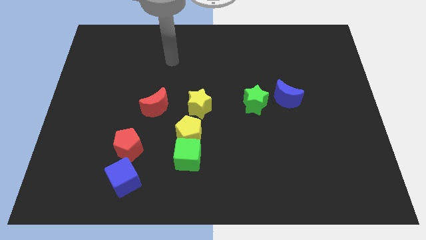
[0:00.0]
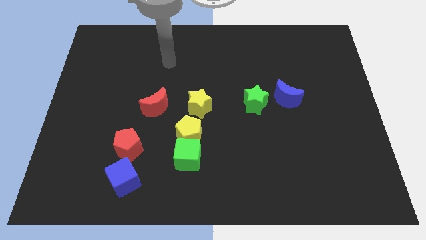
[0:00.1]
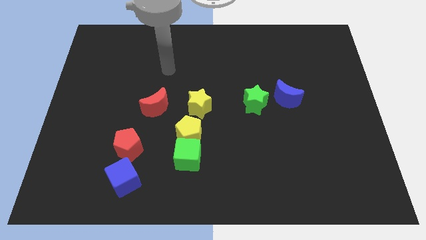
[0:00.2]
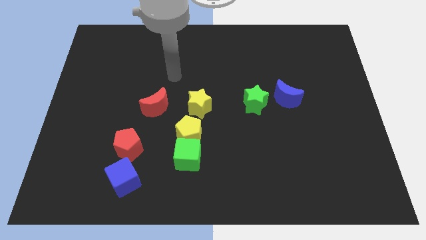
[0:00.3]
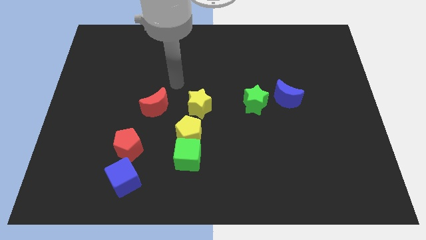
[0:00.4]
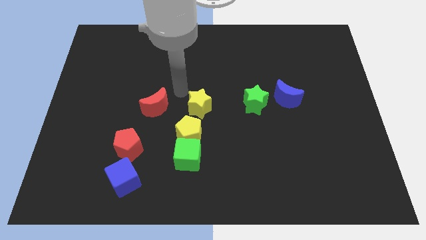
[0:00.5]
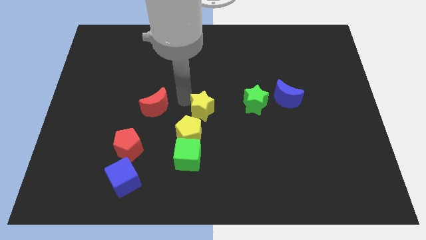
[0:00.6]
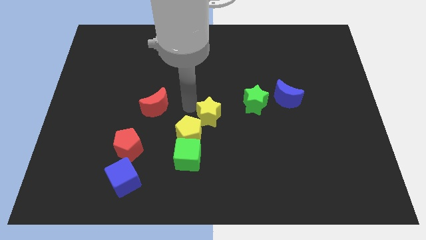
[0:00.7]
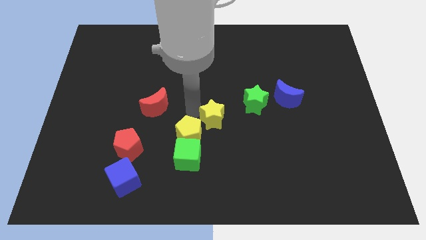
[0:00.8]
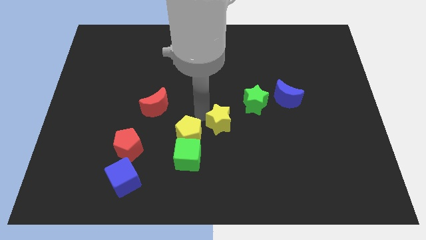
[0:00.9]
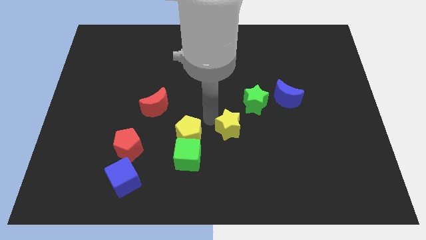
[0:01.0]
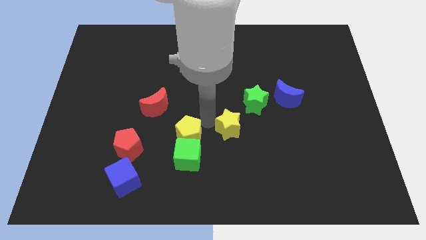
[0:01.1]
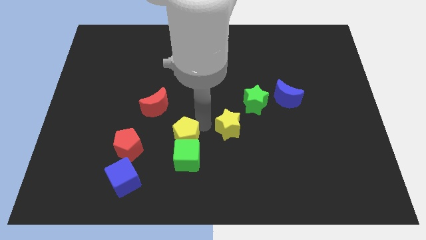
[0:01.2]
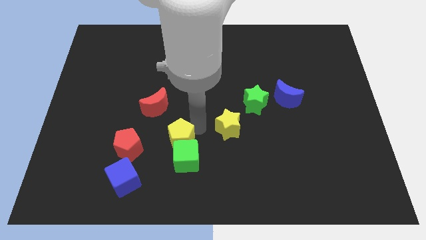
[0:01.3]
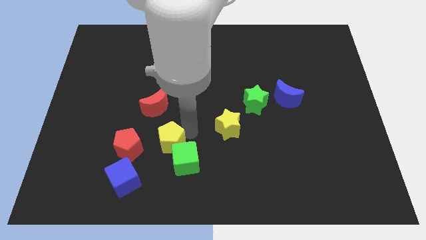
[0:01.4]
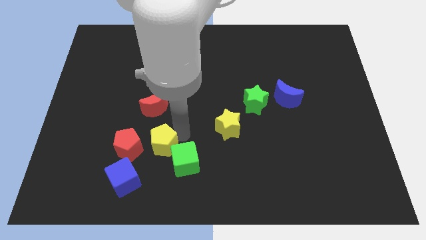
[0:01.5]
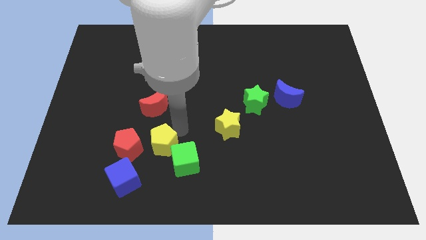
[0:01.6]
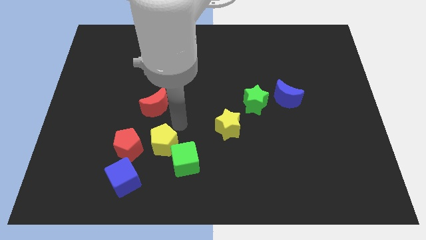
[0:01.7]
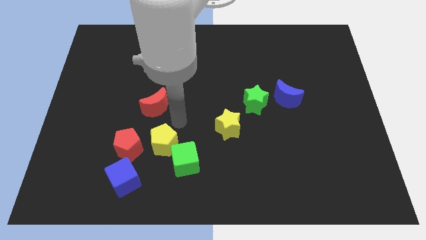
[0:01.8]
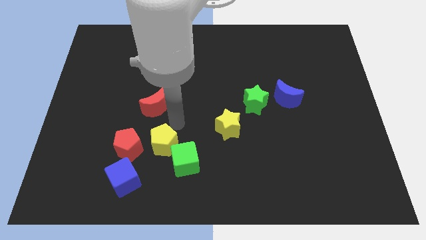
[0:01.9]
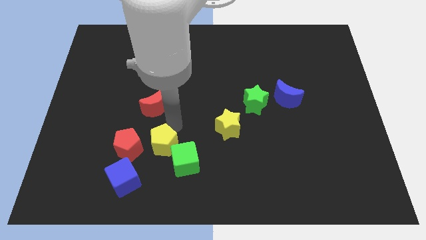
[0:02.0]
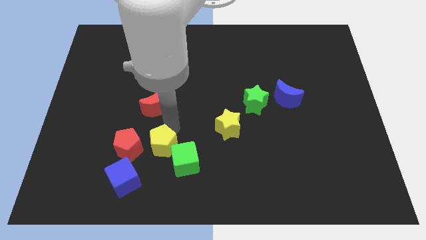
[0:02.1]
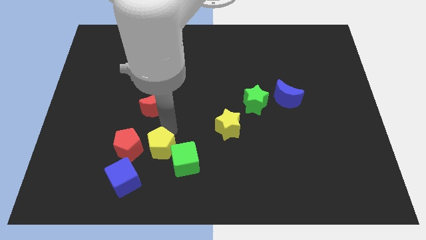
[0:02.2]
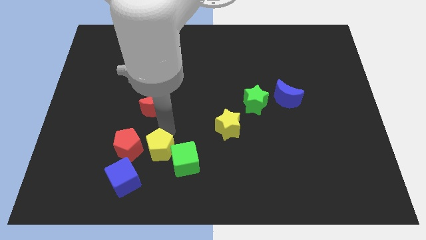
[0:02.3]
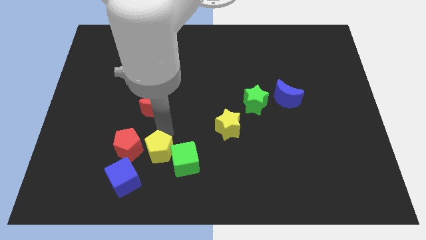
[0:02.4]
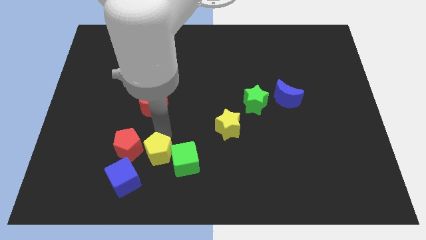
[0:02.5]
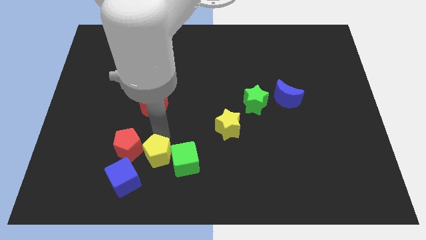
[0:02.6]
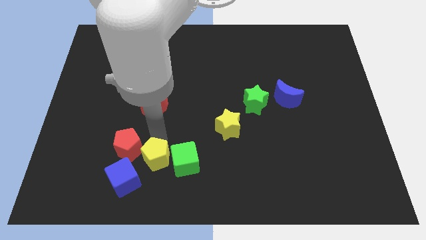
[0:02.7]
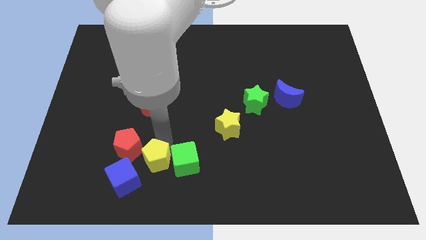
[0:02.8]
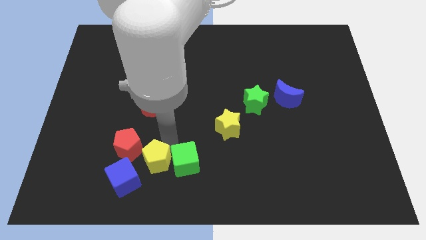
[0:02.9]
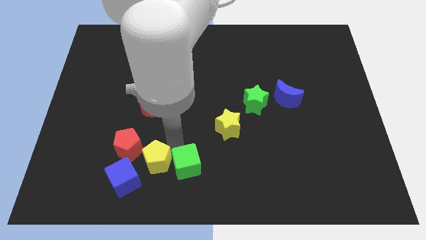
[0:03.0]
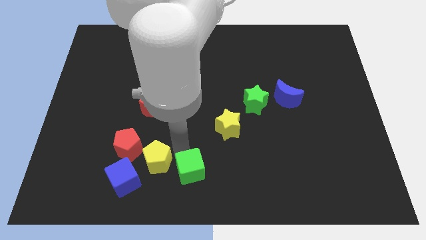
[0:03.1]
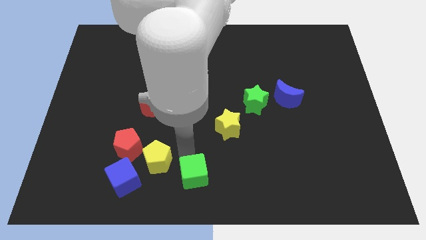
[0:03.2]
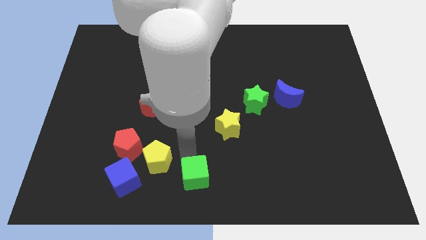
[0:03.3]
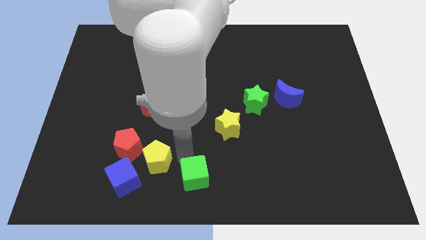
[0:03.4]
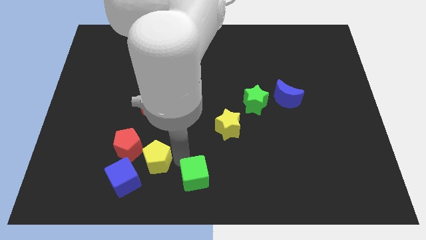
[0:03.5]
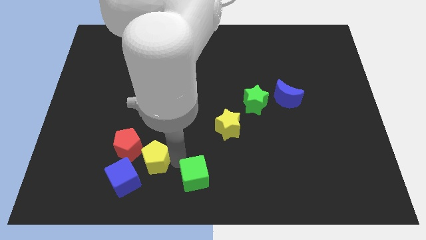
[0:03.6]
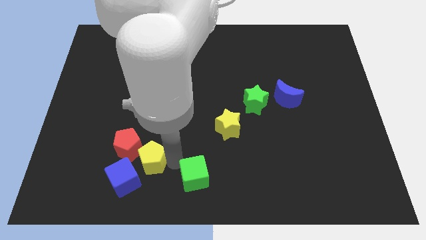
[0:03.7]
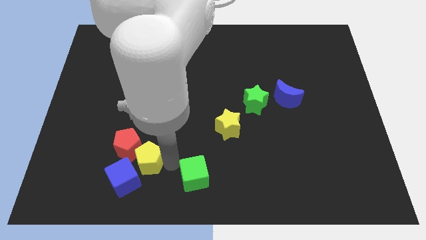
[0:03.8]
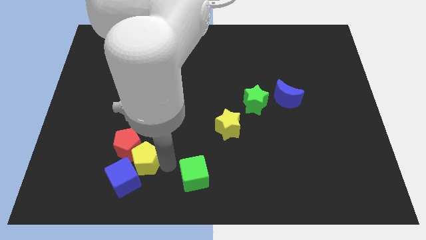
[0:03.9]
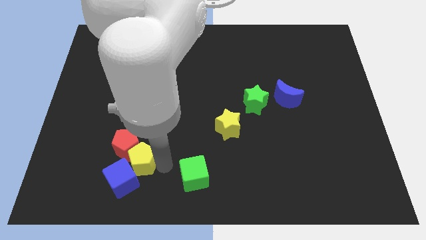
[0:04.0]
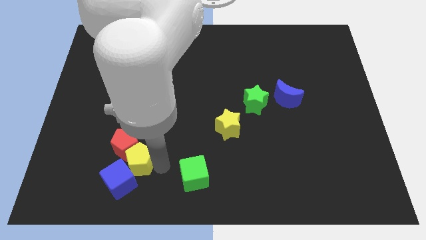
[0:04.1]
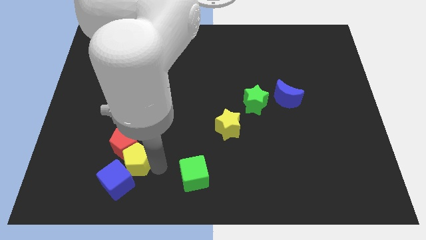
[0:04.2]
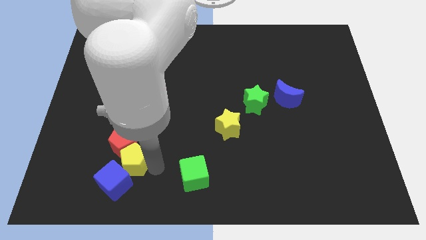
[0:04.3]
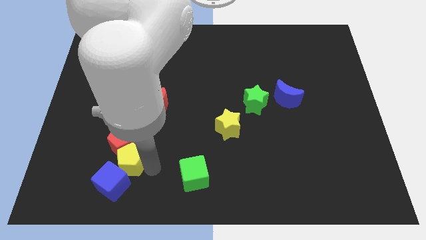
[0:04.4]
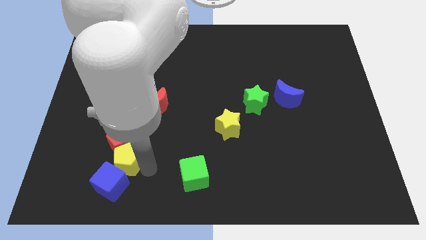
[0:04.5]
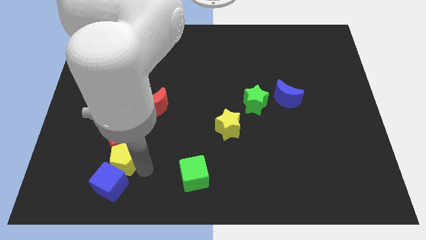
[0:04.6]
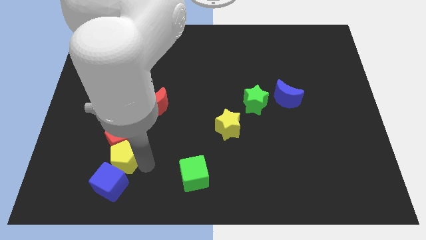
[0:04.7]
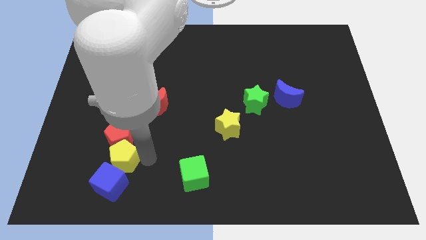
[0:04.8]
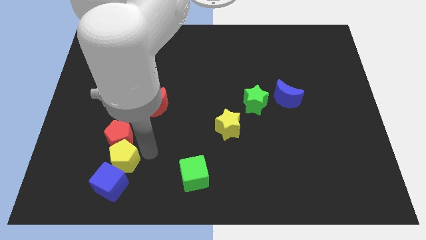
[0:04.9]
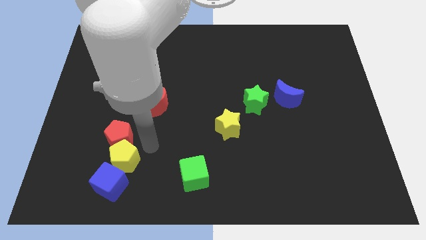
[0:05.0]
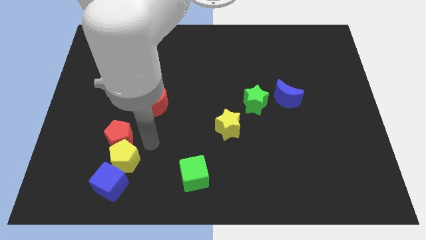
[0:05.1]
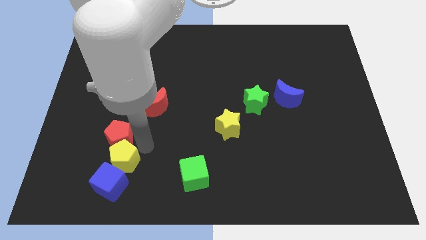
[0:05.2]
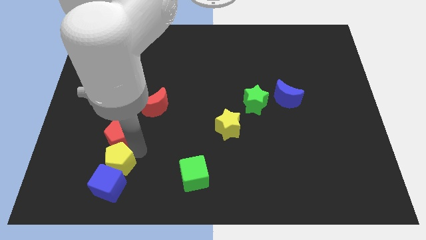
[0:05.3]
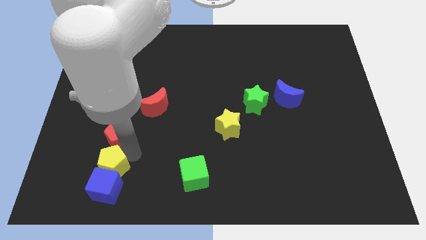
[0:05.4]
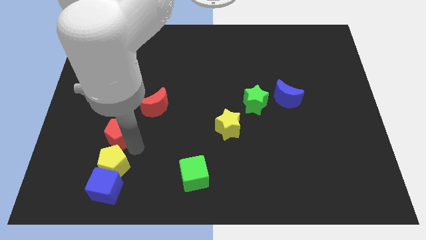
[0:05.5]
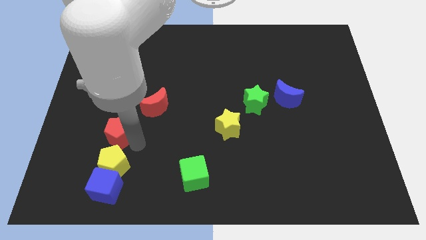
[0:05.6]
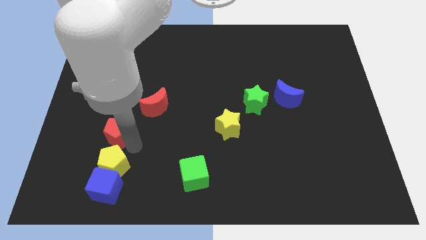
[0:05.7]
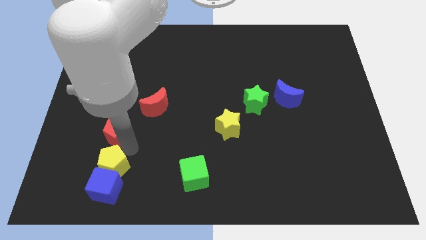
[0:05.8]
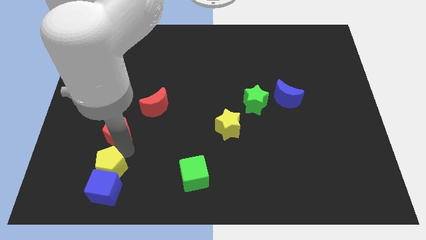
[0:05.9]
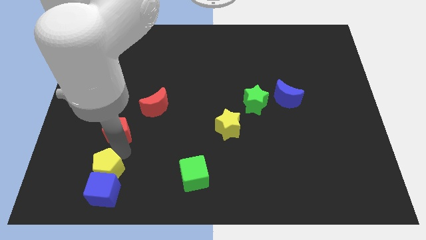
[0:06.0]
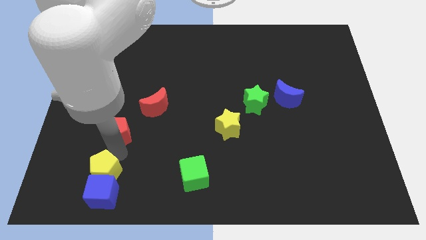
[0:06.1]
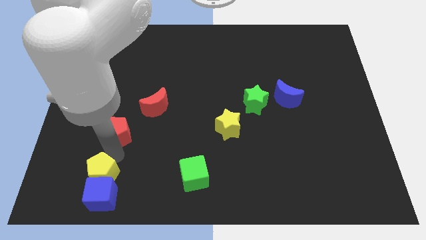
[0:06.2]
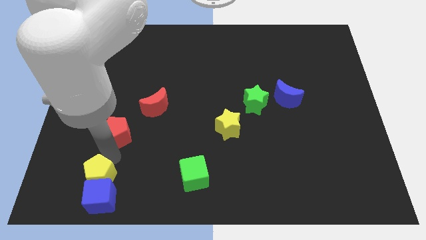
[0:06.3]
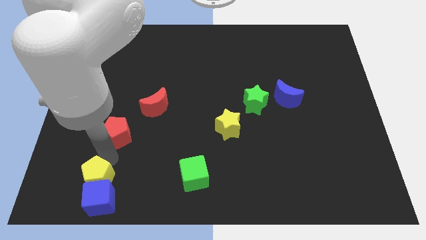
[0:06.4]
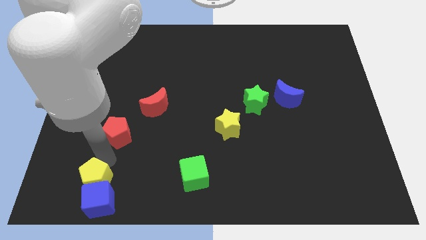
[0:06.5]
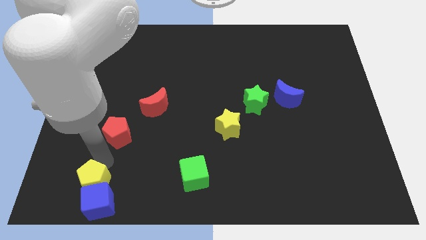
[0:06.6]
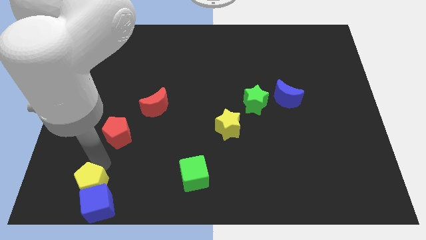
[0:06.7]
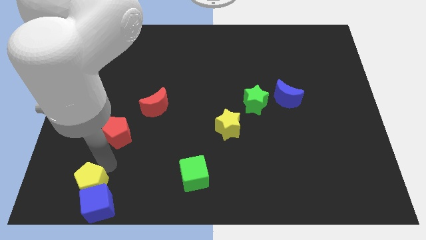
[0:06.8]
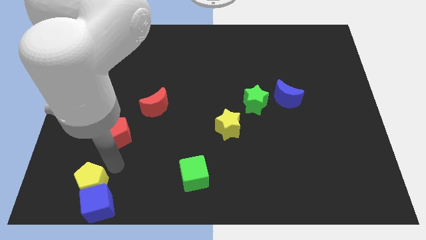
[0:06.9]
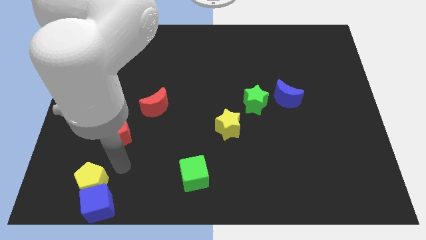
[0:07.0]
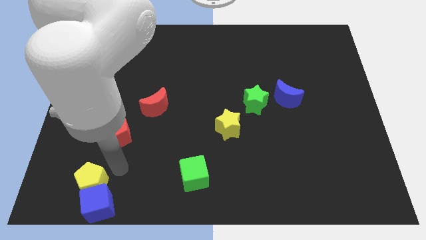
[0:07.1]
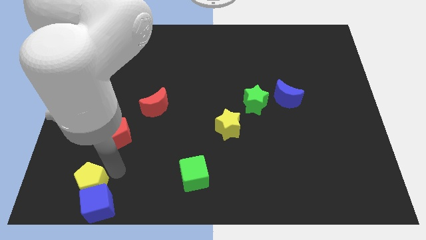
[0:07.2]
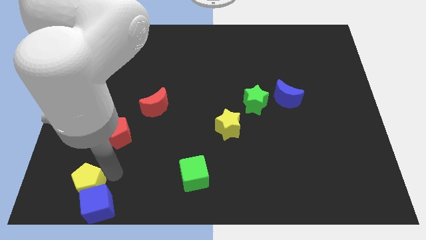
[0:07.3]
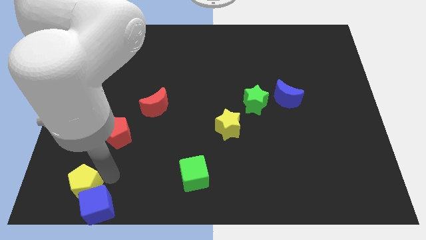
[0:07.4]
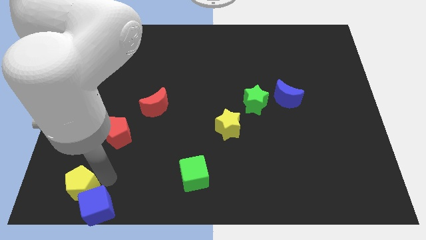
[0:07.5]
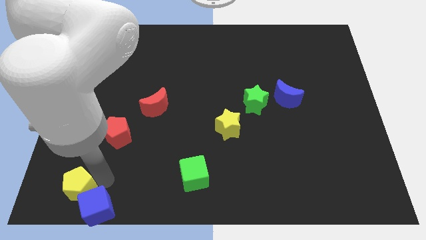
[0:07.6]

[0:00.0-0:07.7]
put the yellow pentagon to the bottom left of the board
